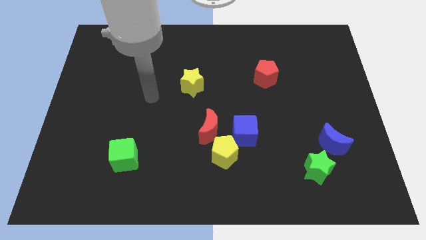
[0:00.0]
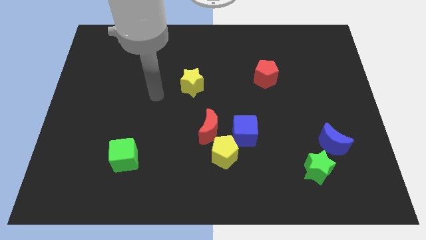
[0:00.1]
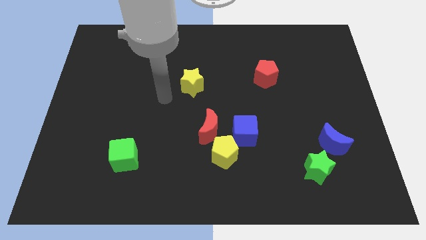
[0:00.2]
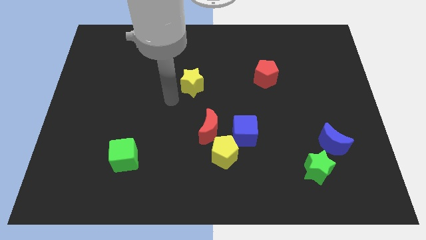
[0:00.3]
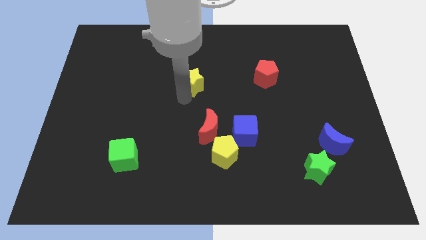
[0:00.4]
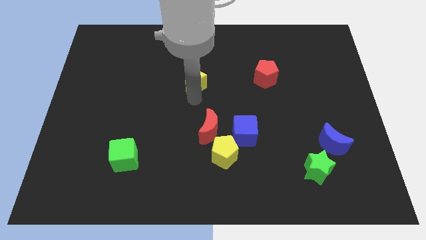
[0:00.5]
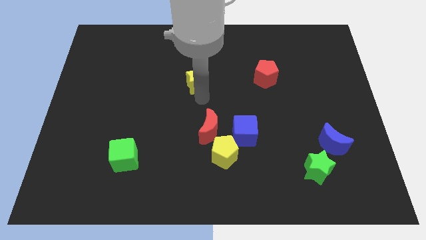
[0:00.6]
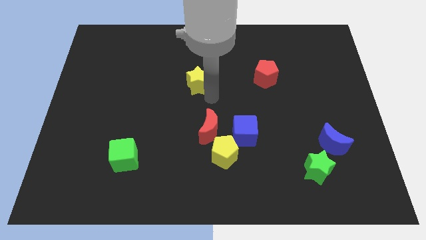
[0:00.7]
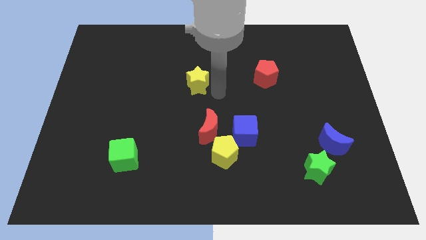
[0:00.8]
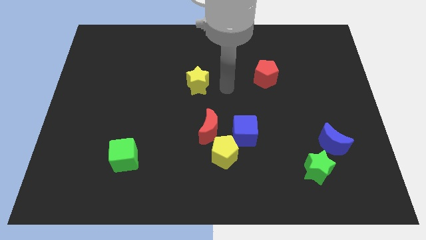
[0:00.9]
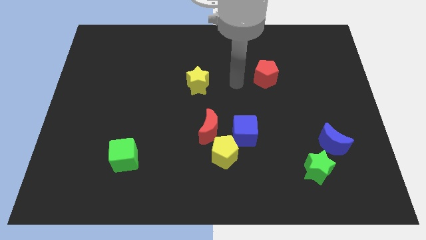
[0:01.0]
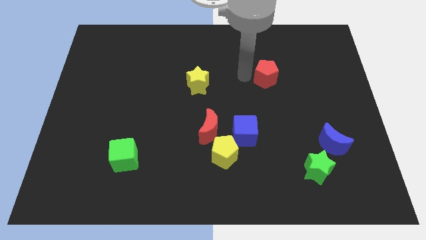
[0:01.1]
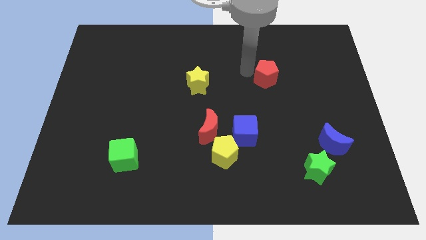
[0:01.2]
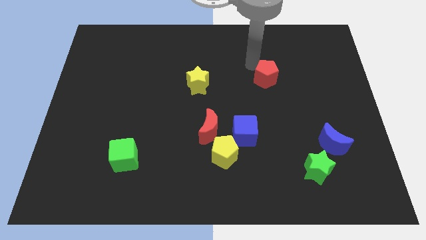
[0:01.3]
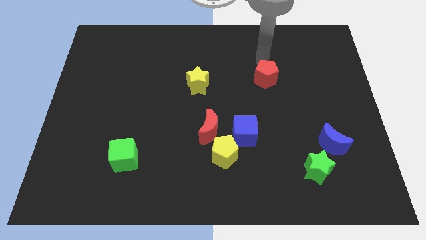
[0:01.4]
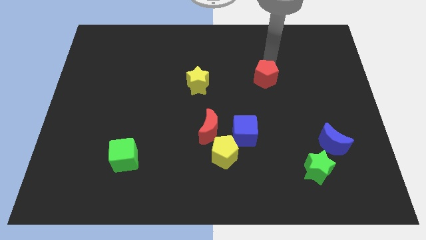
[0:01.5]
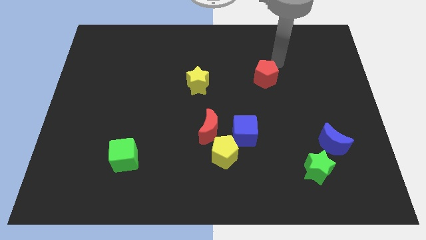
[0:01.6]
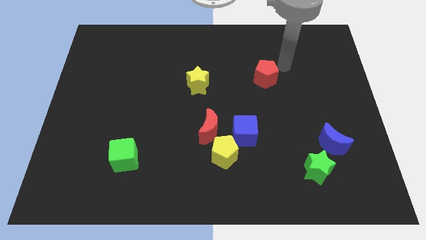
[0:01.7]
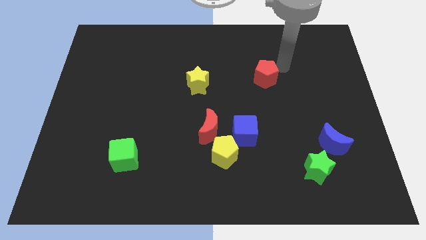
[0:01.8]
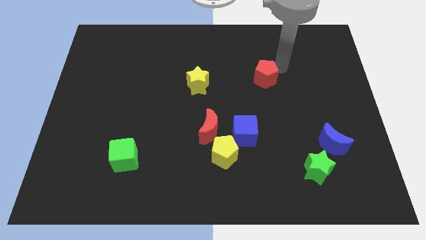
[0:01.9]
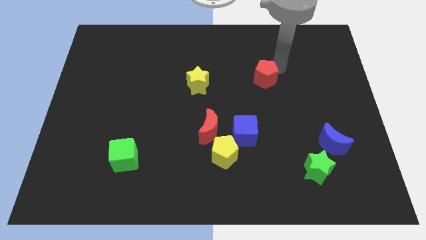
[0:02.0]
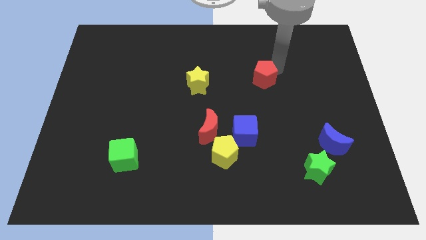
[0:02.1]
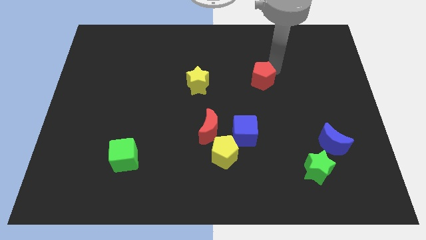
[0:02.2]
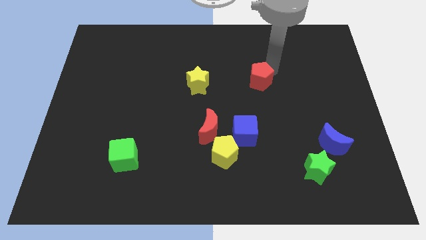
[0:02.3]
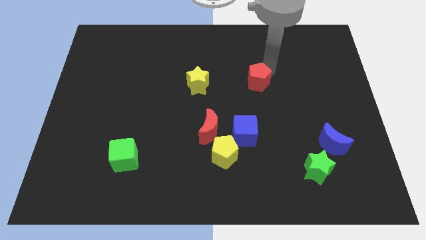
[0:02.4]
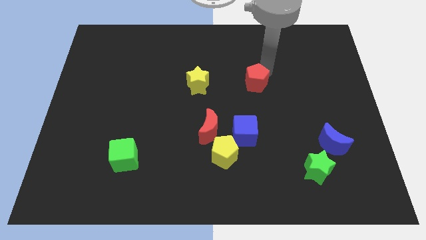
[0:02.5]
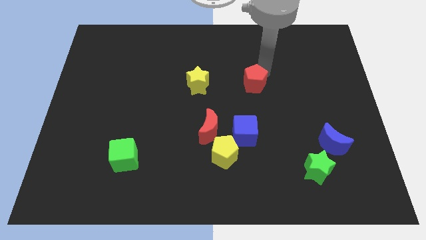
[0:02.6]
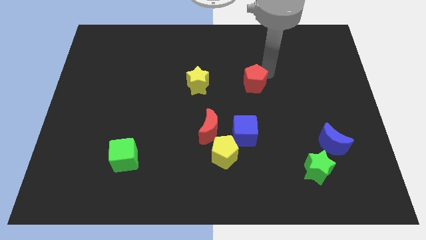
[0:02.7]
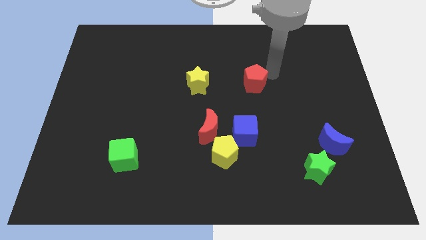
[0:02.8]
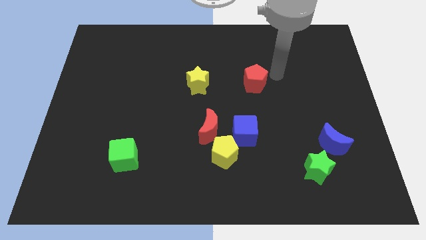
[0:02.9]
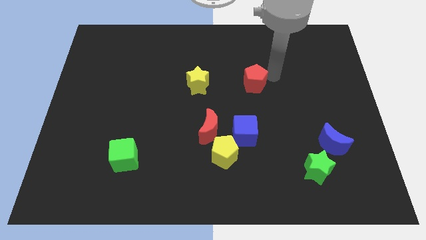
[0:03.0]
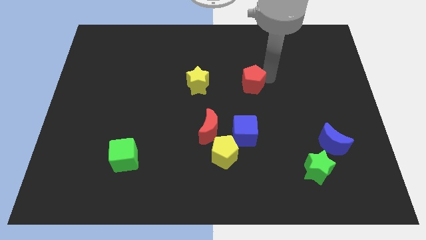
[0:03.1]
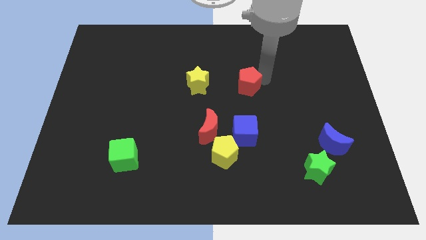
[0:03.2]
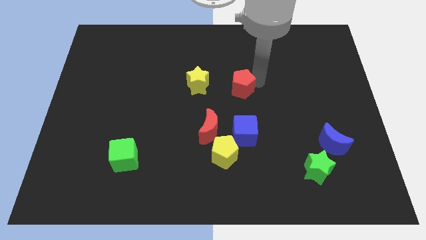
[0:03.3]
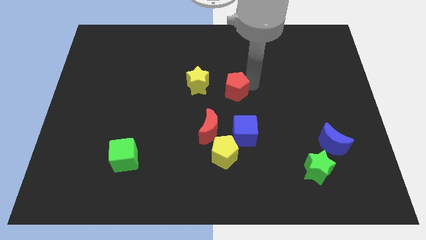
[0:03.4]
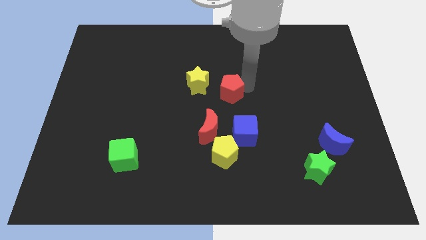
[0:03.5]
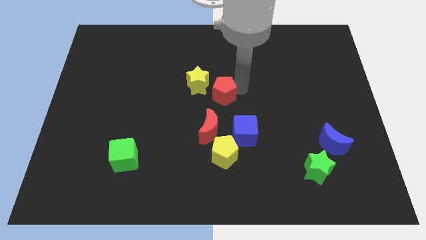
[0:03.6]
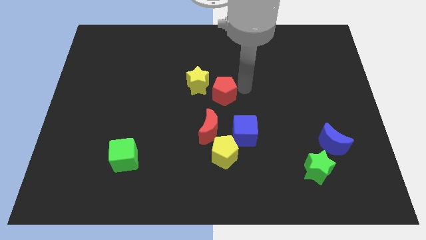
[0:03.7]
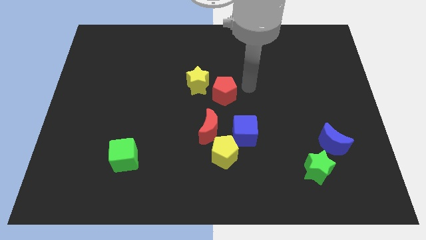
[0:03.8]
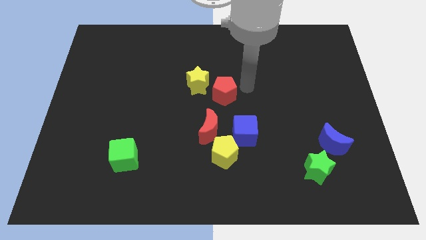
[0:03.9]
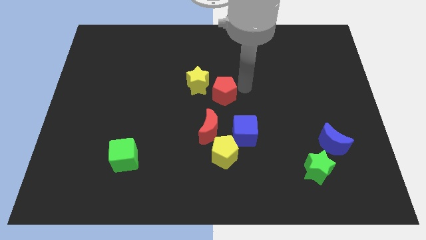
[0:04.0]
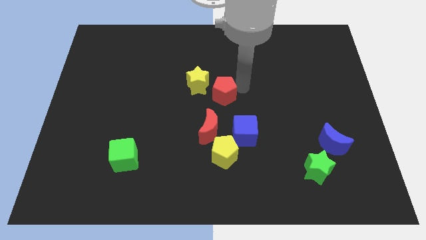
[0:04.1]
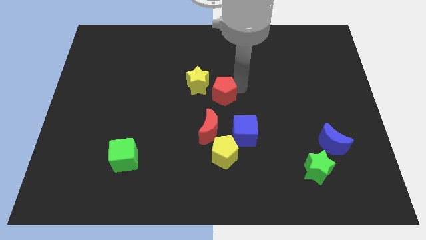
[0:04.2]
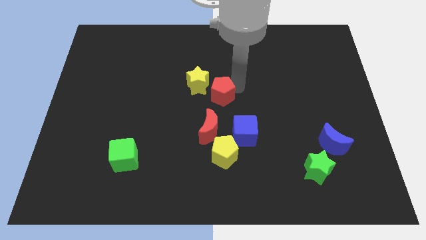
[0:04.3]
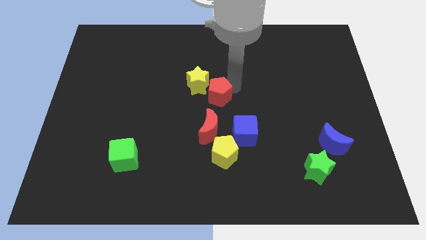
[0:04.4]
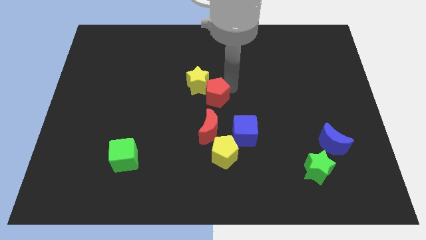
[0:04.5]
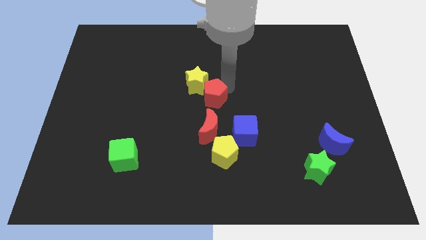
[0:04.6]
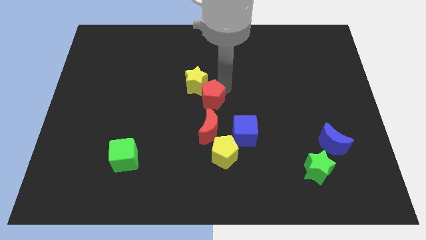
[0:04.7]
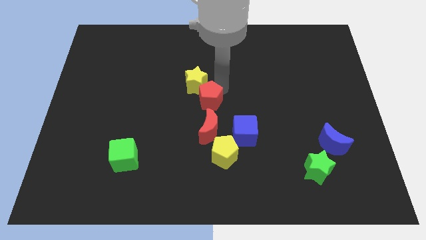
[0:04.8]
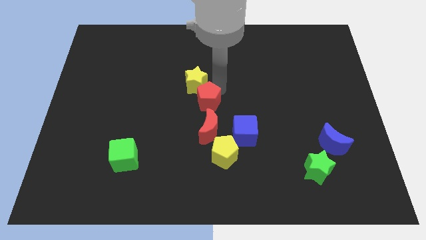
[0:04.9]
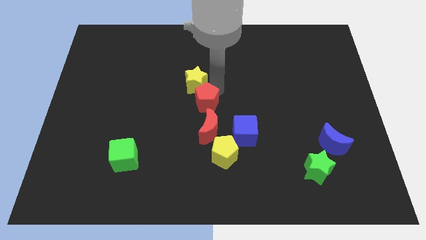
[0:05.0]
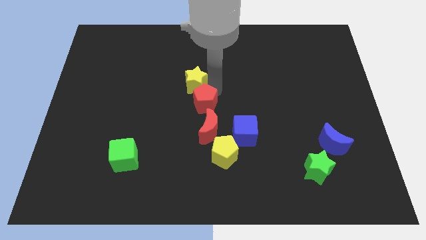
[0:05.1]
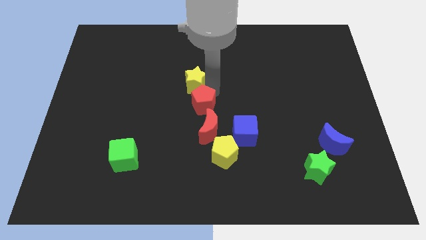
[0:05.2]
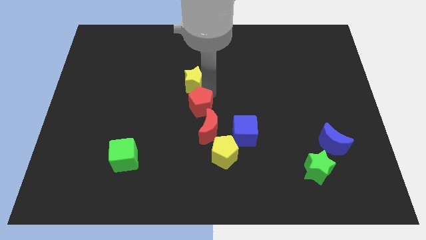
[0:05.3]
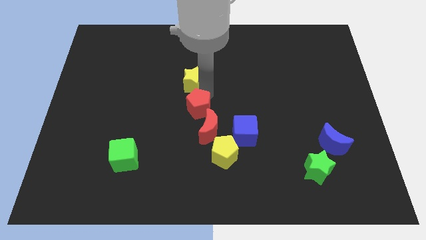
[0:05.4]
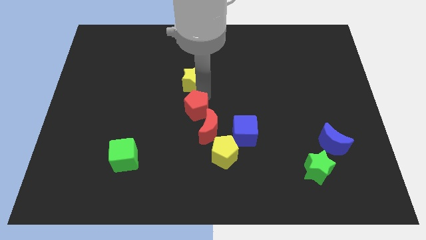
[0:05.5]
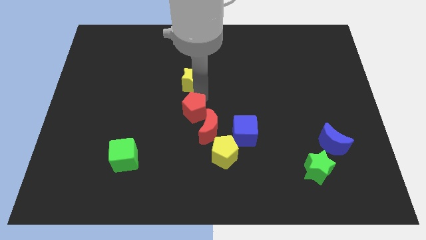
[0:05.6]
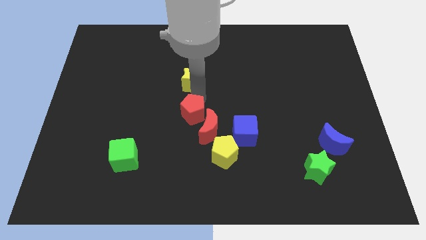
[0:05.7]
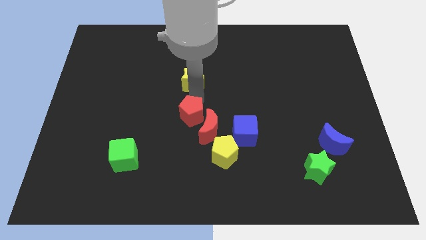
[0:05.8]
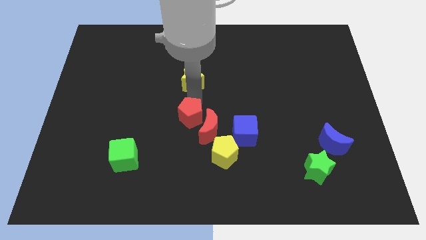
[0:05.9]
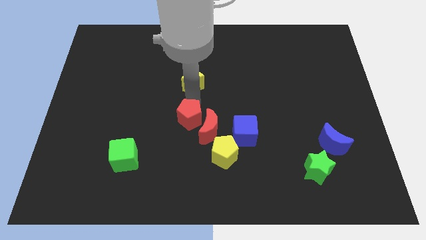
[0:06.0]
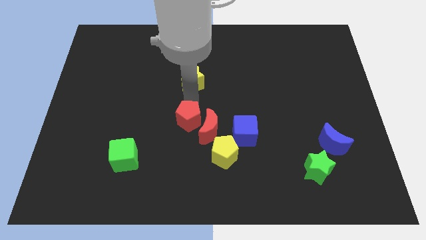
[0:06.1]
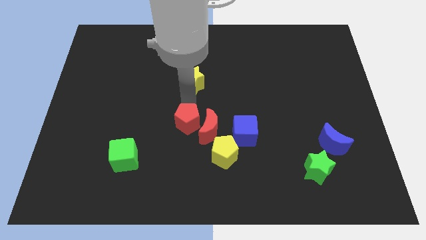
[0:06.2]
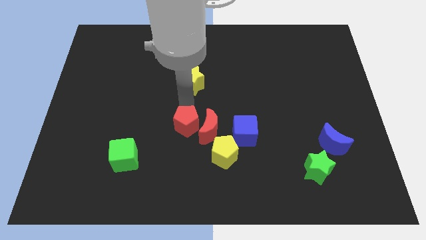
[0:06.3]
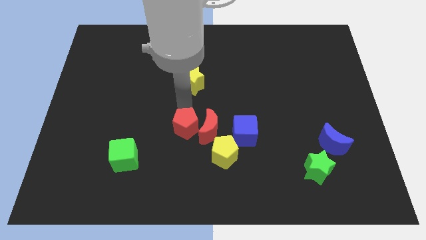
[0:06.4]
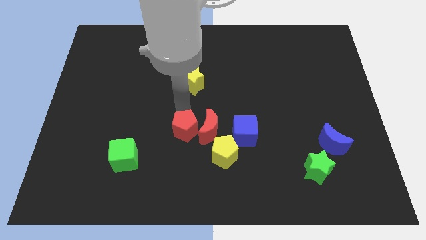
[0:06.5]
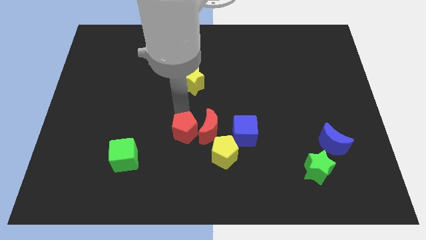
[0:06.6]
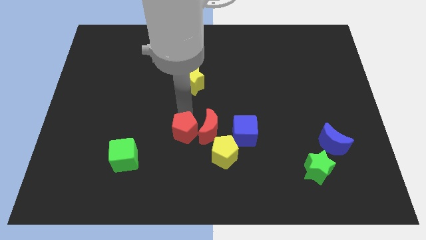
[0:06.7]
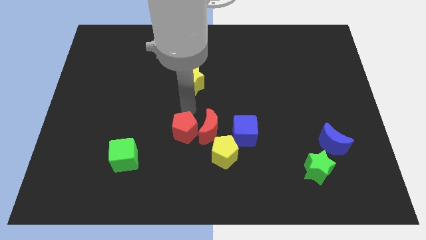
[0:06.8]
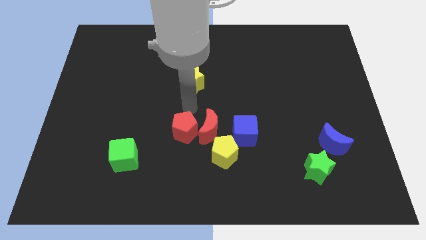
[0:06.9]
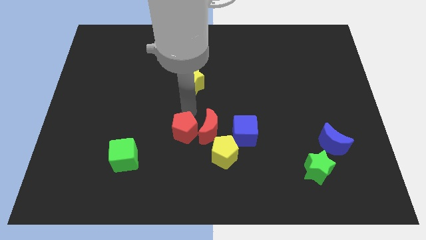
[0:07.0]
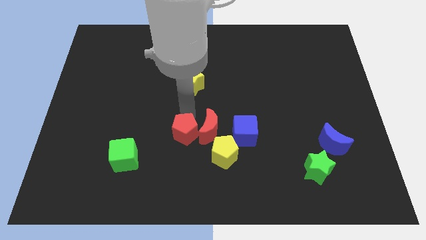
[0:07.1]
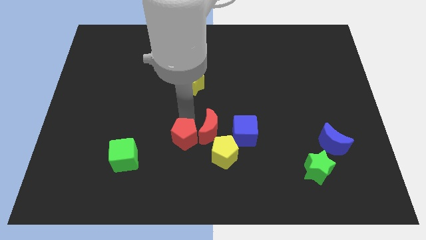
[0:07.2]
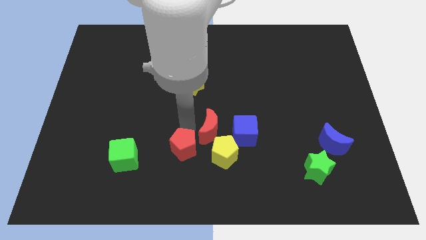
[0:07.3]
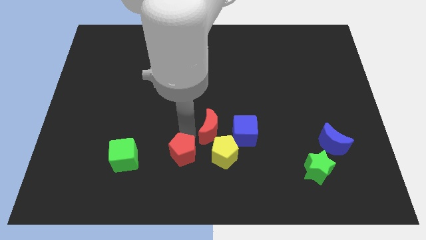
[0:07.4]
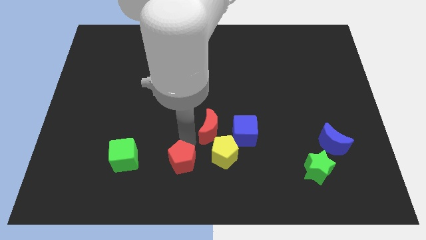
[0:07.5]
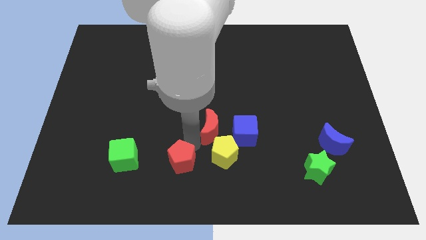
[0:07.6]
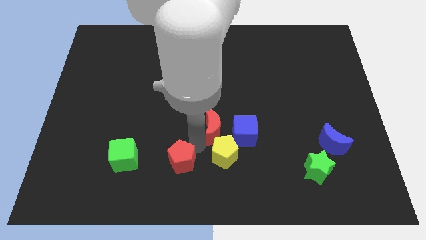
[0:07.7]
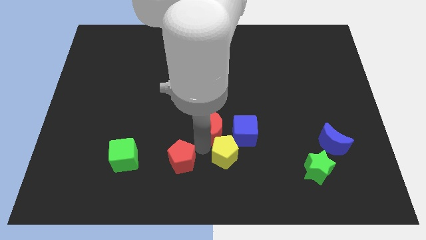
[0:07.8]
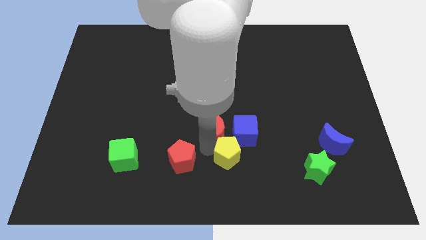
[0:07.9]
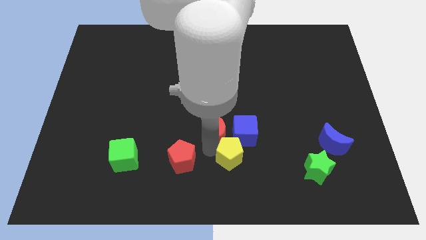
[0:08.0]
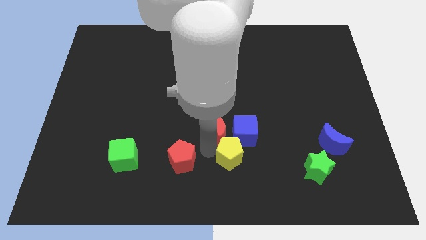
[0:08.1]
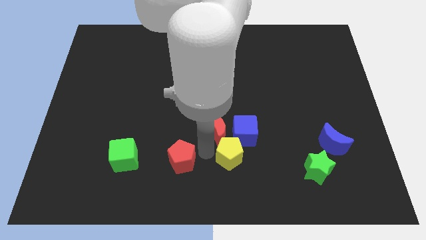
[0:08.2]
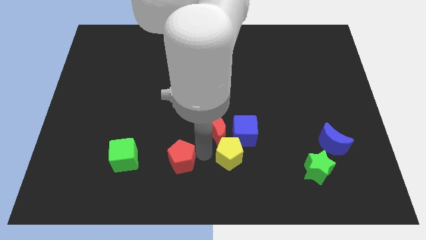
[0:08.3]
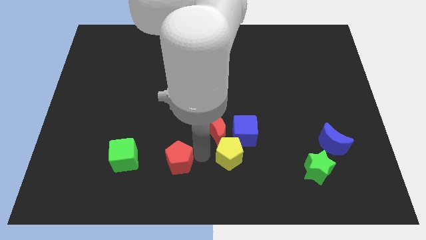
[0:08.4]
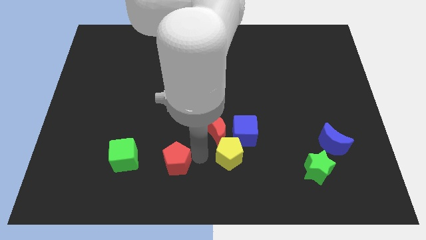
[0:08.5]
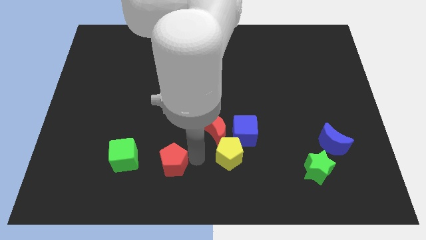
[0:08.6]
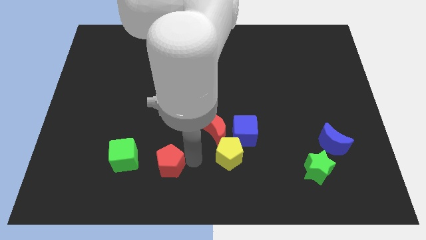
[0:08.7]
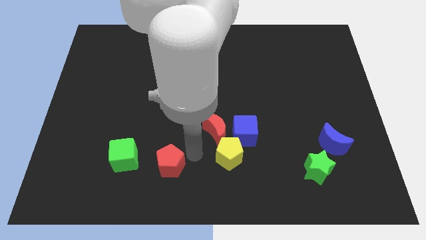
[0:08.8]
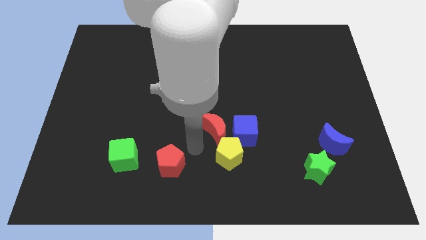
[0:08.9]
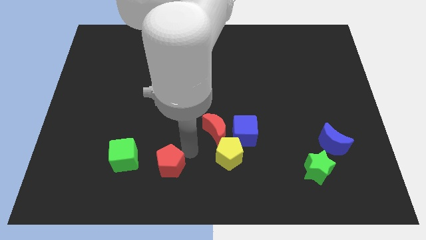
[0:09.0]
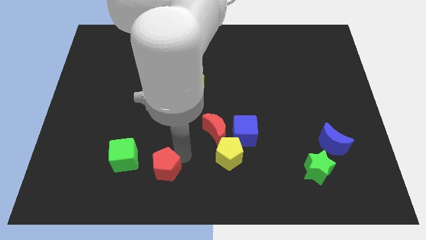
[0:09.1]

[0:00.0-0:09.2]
put the red pentagon to the bottom right side of the green cube
